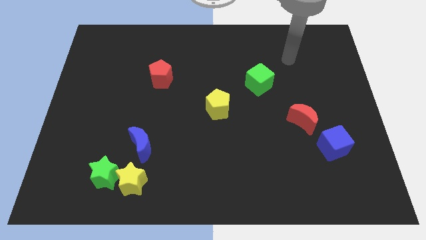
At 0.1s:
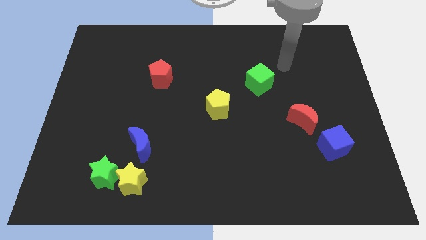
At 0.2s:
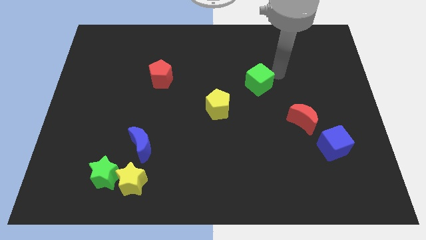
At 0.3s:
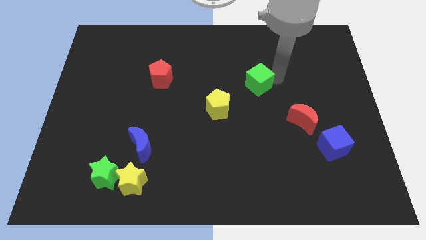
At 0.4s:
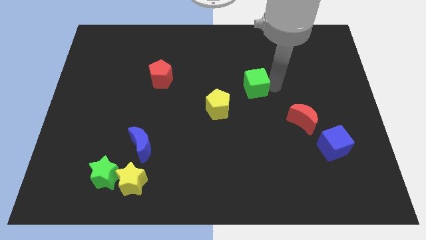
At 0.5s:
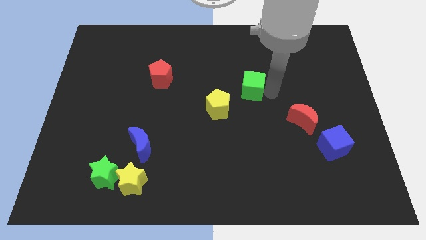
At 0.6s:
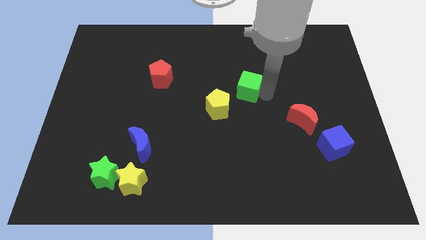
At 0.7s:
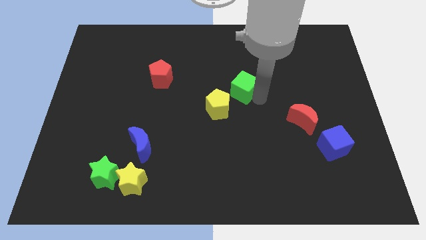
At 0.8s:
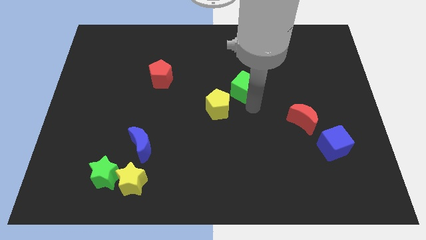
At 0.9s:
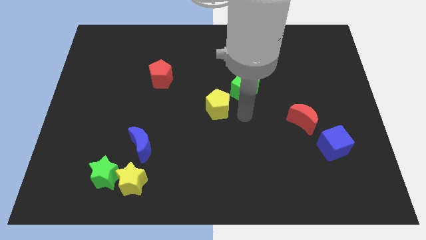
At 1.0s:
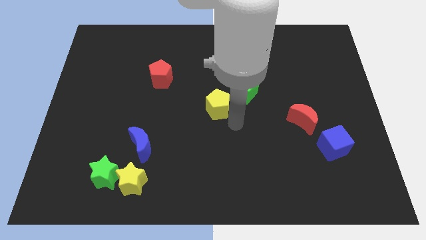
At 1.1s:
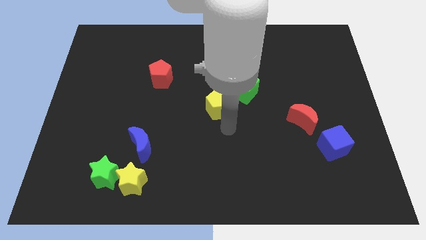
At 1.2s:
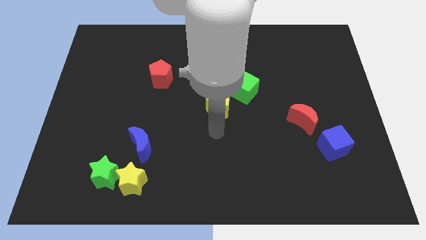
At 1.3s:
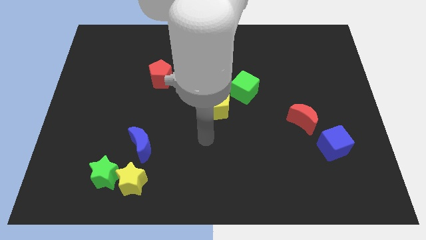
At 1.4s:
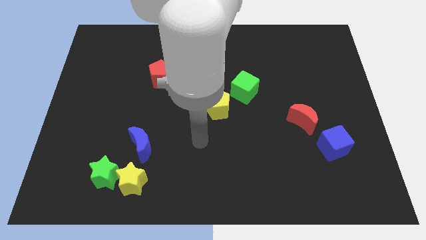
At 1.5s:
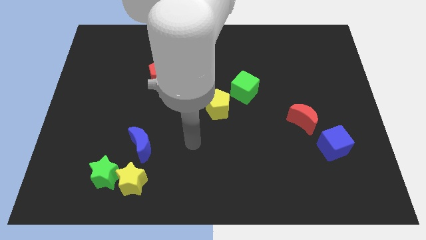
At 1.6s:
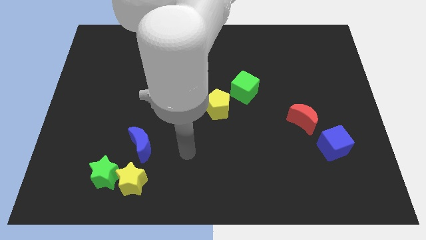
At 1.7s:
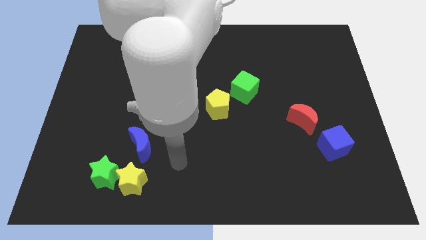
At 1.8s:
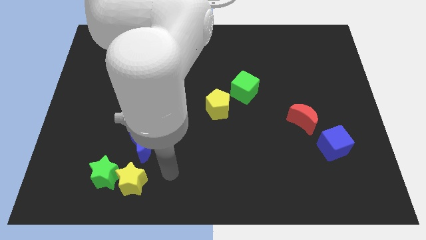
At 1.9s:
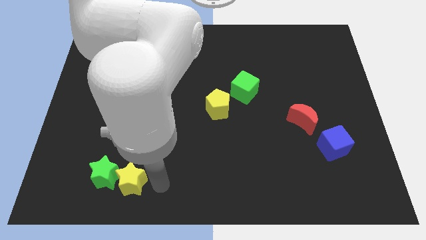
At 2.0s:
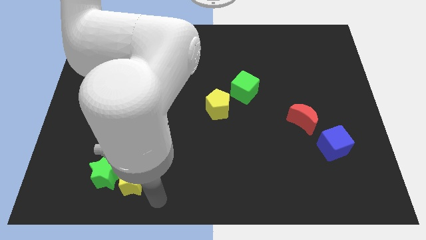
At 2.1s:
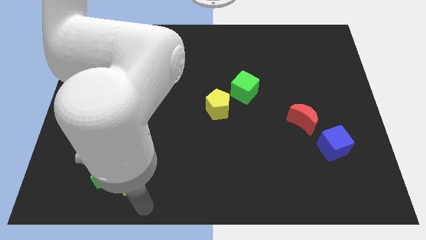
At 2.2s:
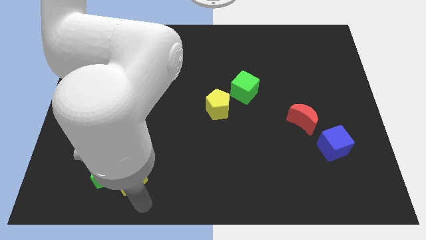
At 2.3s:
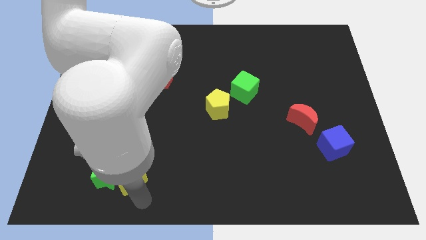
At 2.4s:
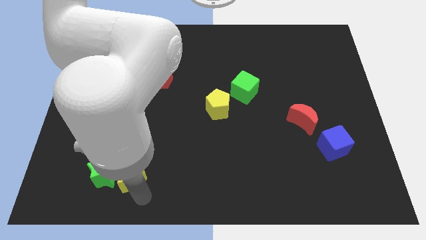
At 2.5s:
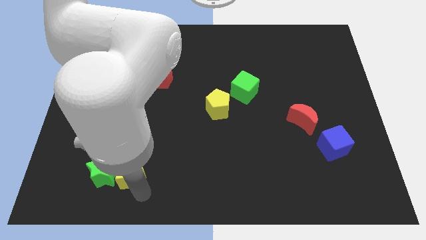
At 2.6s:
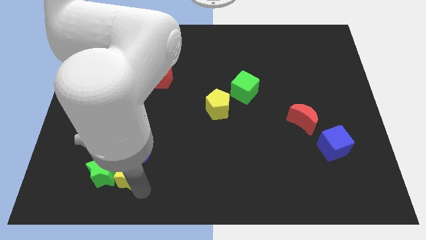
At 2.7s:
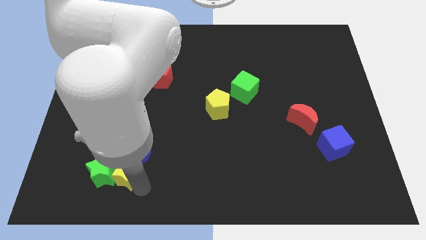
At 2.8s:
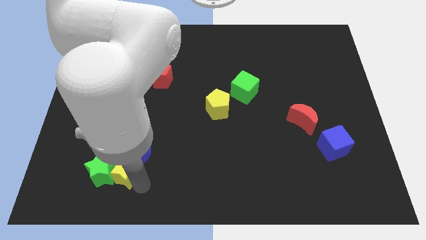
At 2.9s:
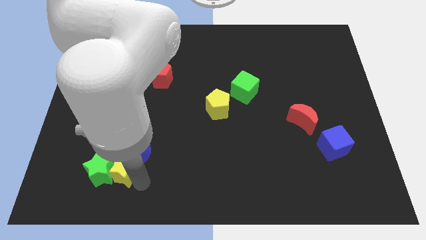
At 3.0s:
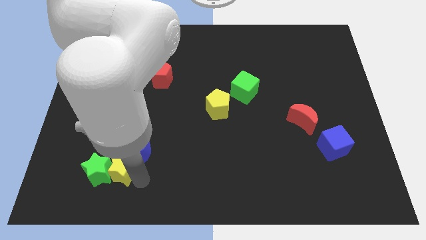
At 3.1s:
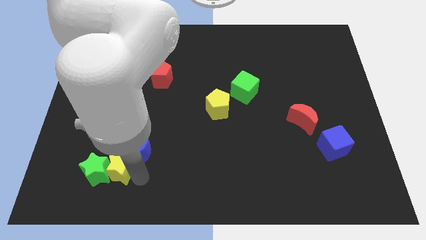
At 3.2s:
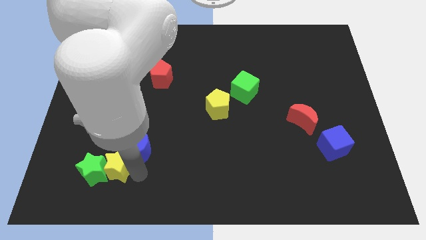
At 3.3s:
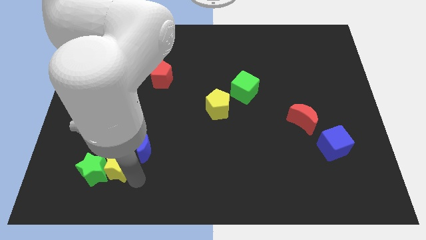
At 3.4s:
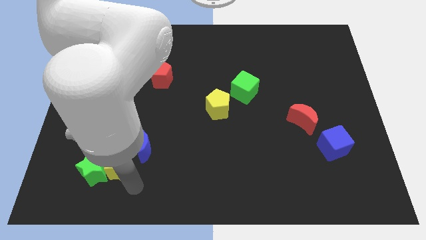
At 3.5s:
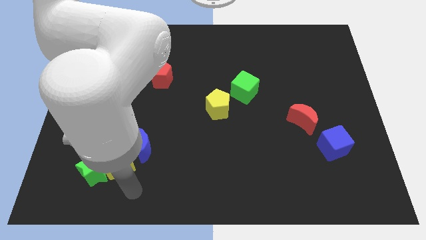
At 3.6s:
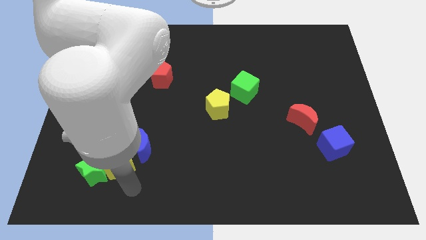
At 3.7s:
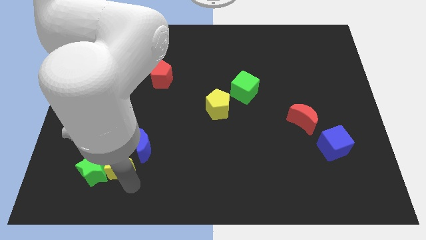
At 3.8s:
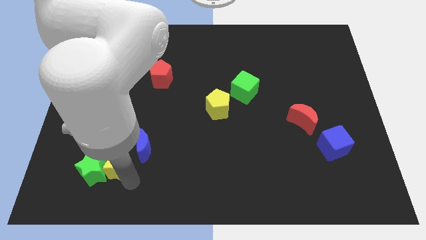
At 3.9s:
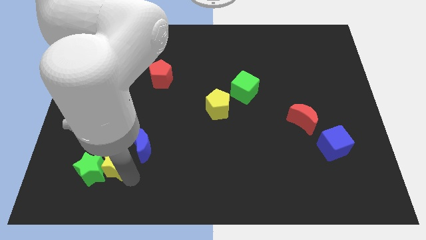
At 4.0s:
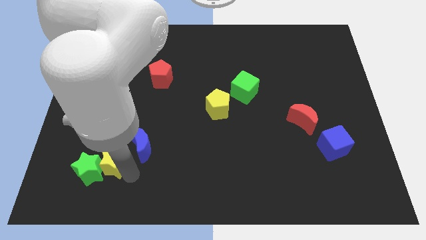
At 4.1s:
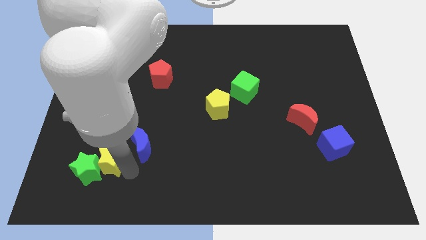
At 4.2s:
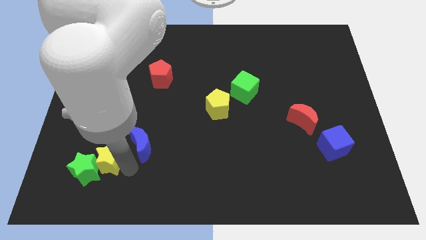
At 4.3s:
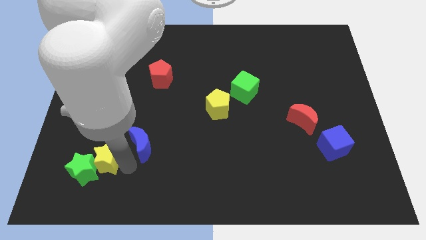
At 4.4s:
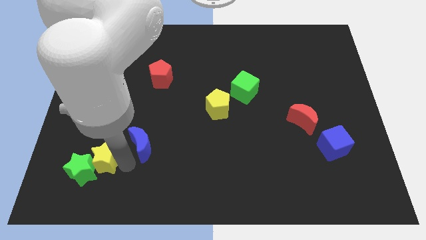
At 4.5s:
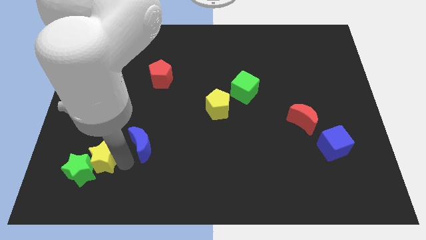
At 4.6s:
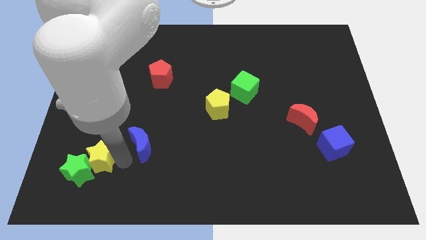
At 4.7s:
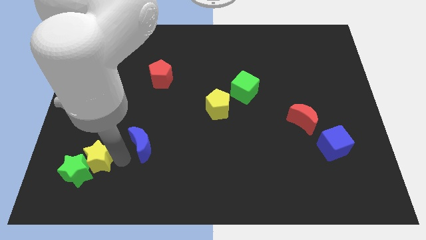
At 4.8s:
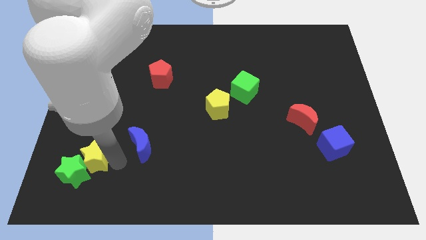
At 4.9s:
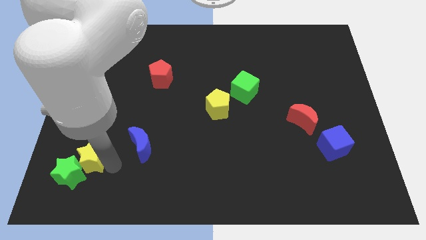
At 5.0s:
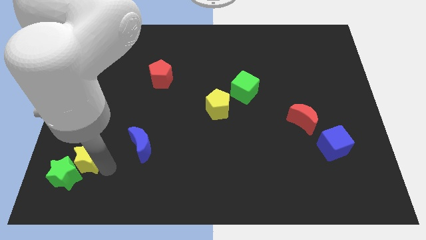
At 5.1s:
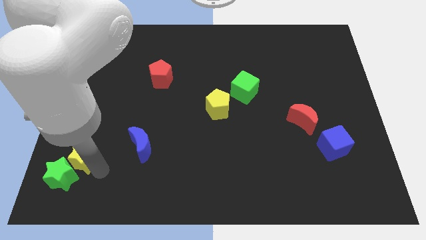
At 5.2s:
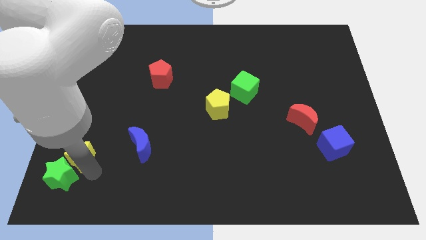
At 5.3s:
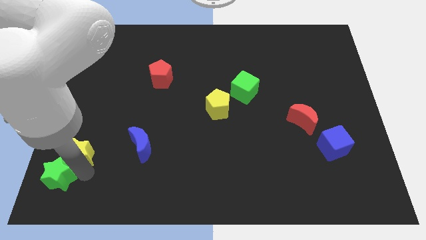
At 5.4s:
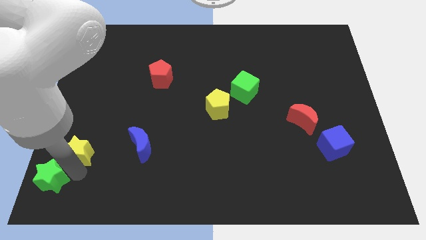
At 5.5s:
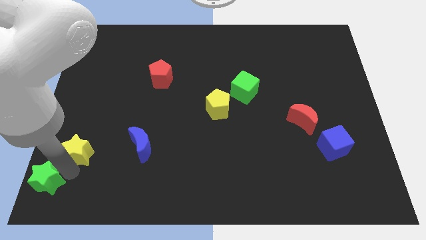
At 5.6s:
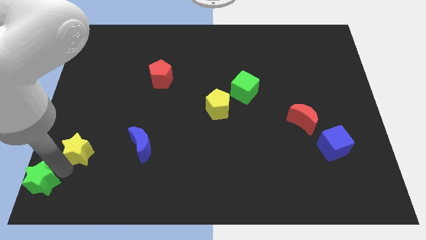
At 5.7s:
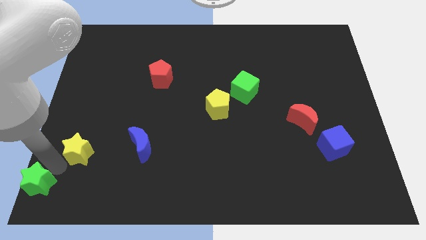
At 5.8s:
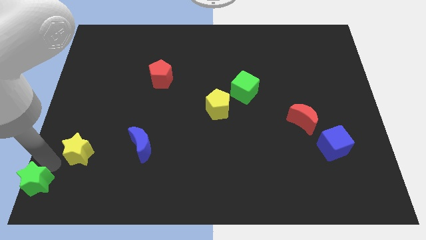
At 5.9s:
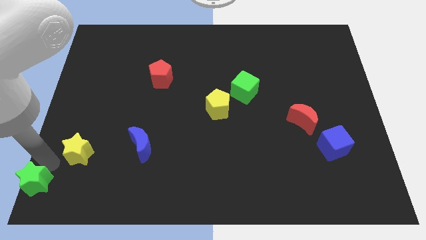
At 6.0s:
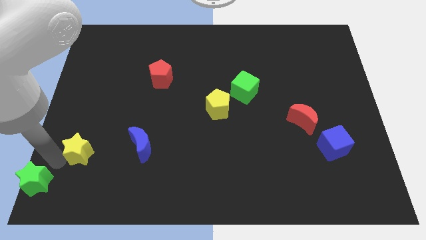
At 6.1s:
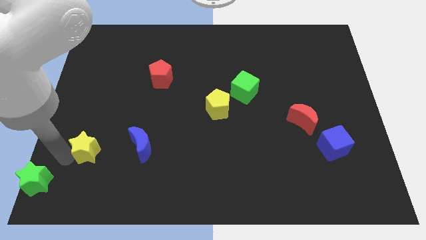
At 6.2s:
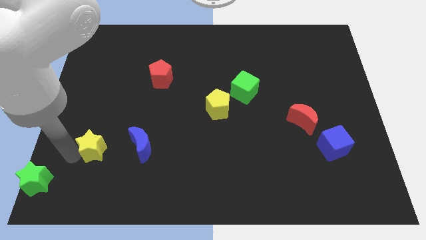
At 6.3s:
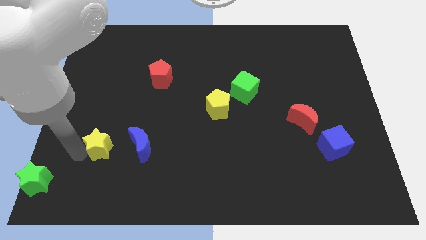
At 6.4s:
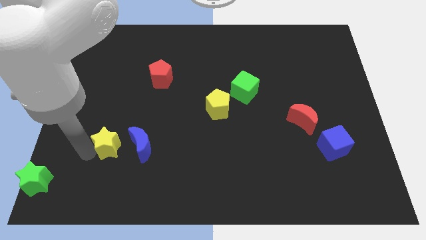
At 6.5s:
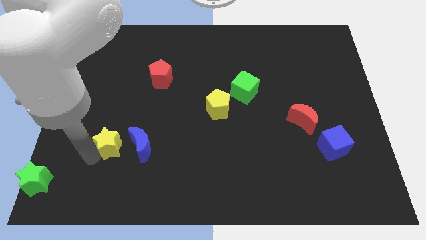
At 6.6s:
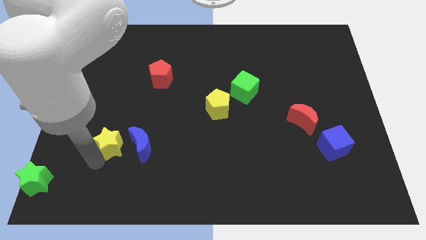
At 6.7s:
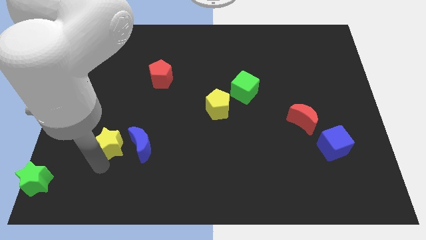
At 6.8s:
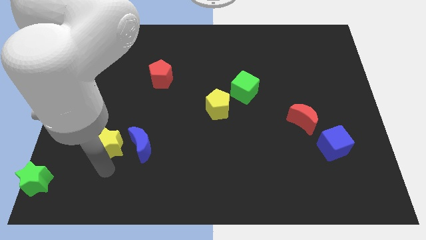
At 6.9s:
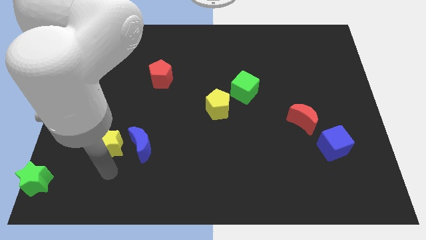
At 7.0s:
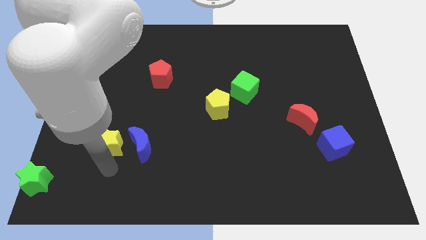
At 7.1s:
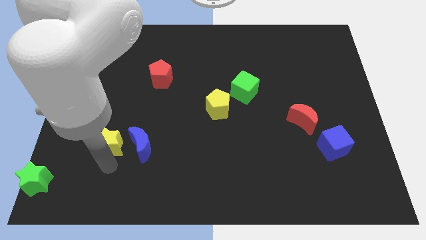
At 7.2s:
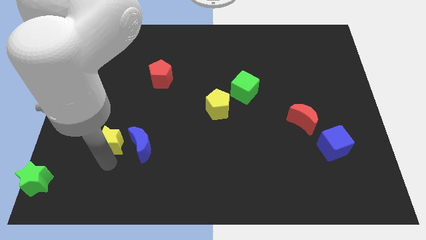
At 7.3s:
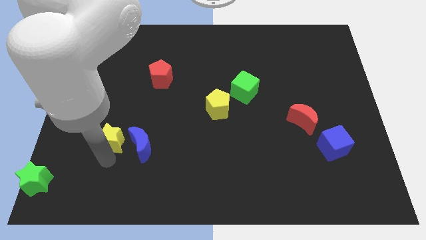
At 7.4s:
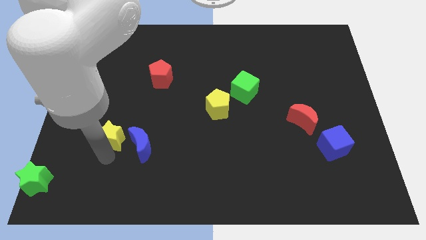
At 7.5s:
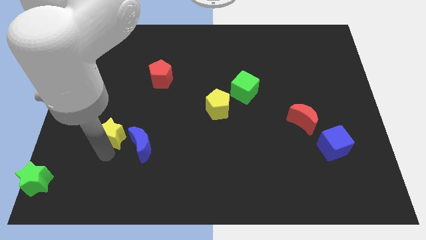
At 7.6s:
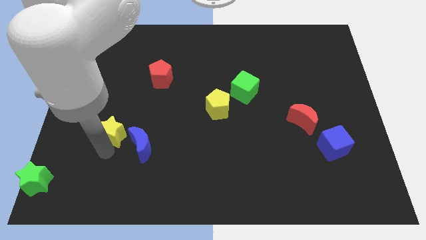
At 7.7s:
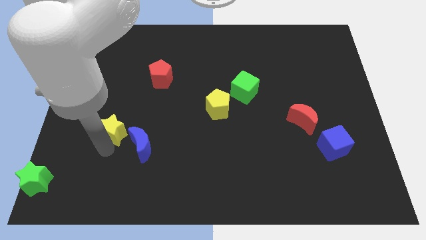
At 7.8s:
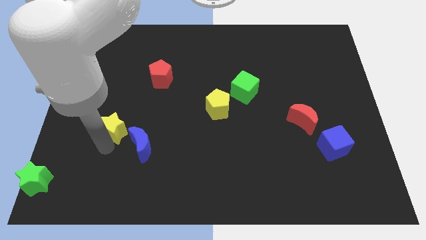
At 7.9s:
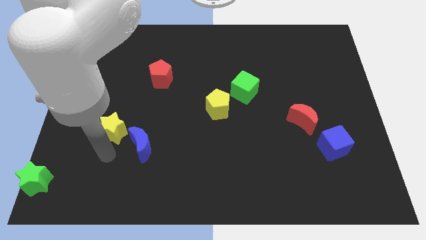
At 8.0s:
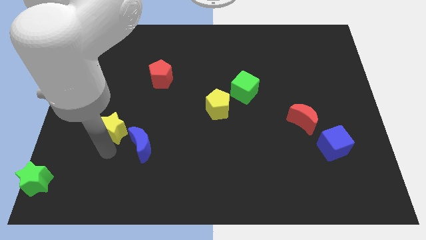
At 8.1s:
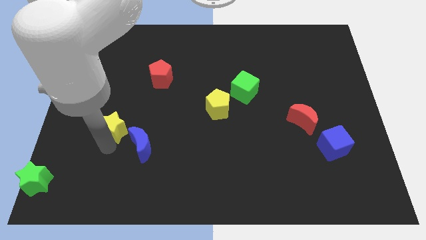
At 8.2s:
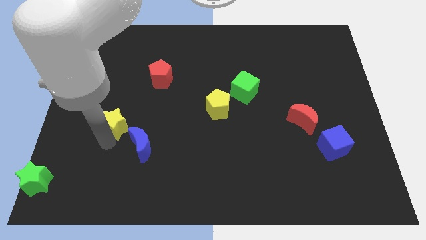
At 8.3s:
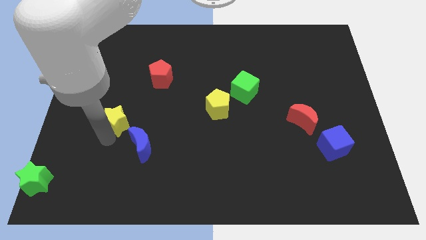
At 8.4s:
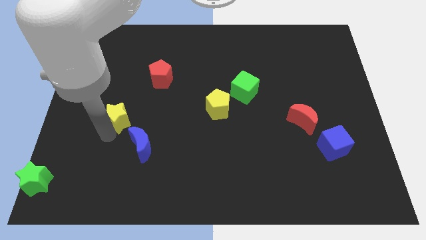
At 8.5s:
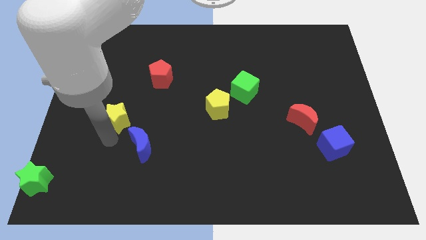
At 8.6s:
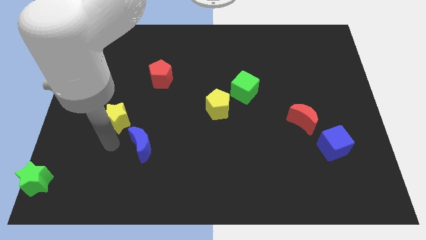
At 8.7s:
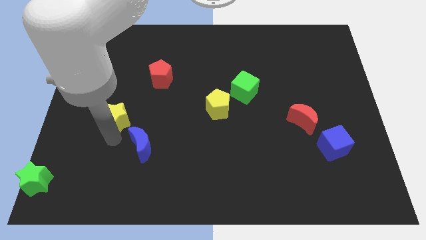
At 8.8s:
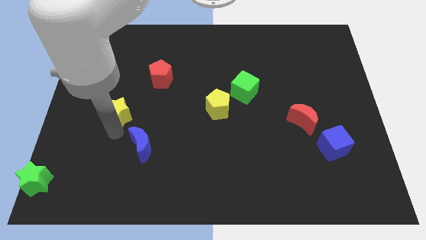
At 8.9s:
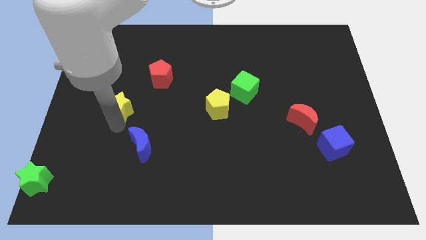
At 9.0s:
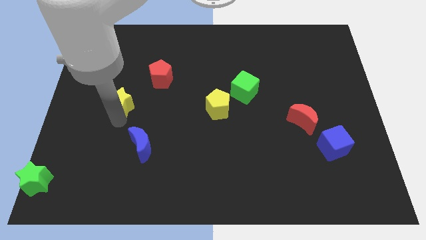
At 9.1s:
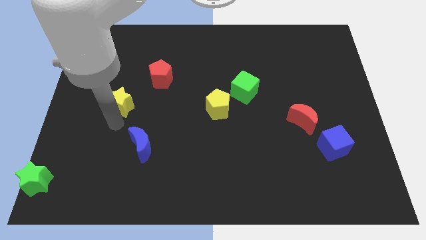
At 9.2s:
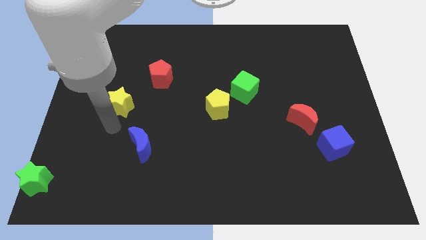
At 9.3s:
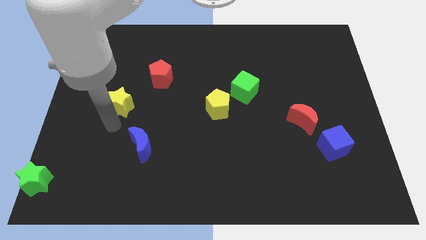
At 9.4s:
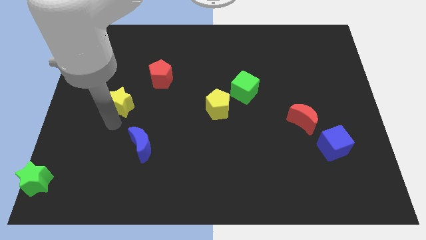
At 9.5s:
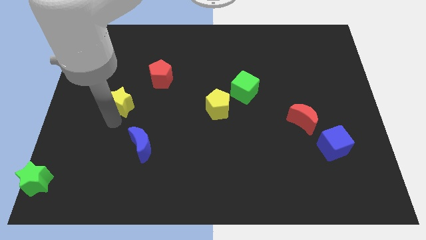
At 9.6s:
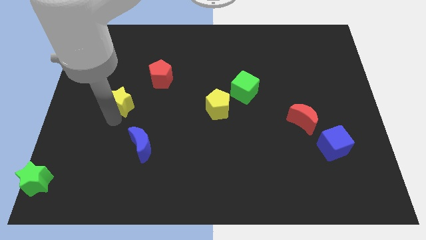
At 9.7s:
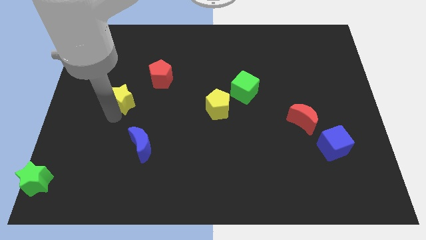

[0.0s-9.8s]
push the yellow star up
